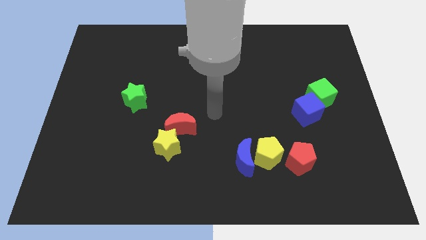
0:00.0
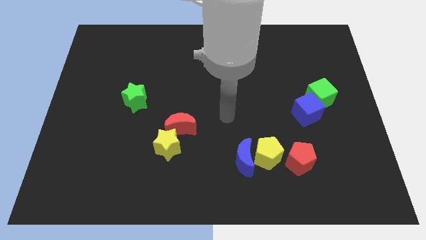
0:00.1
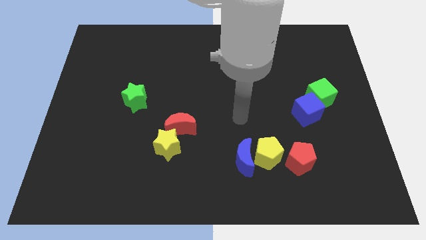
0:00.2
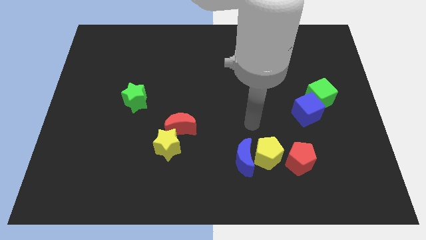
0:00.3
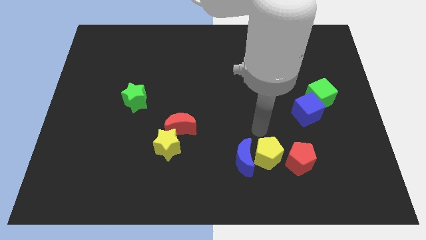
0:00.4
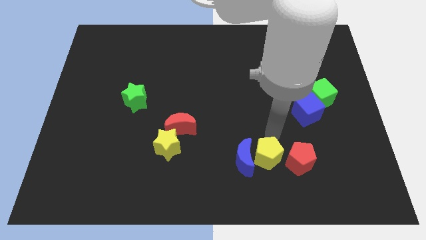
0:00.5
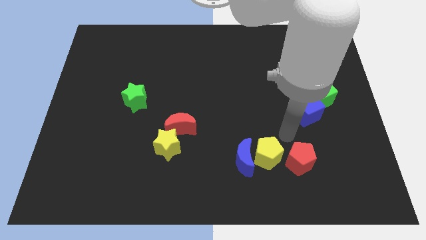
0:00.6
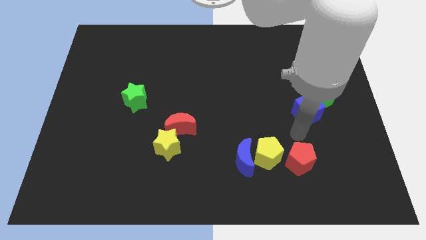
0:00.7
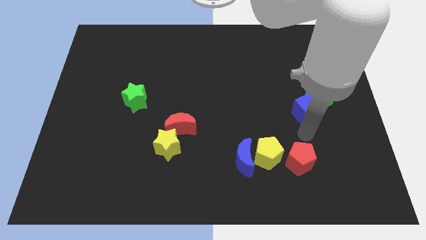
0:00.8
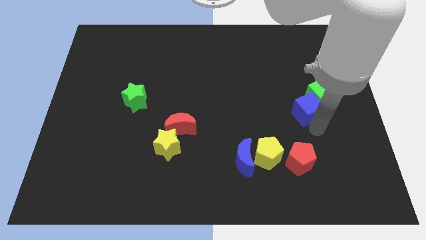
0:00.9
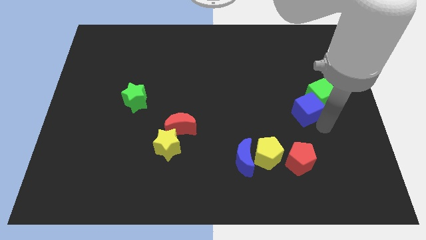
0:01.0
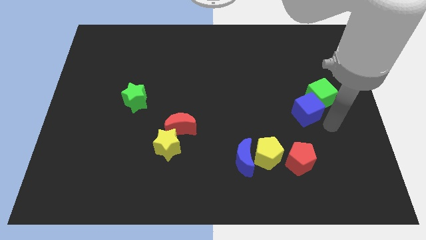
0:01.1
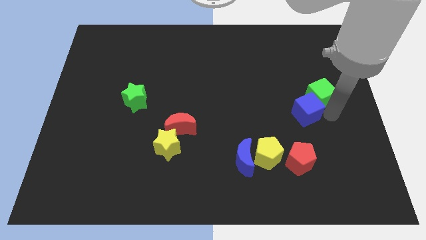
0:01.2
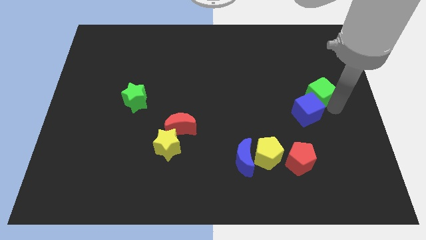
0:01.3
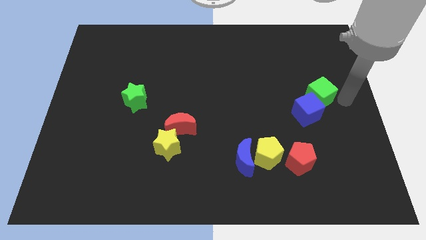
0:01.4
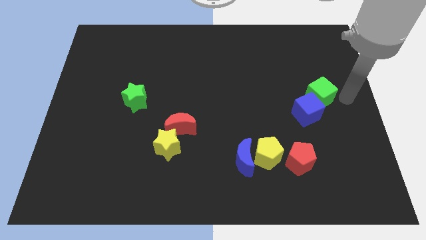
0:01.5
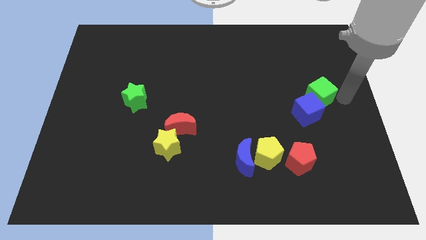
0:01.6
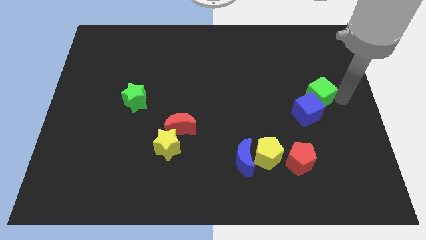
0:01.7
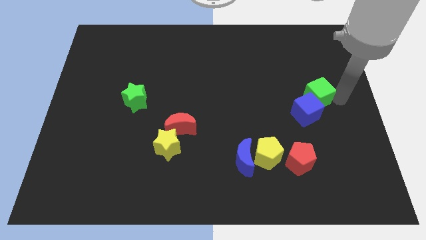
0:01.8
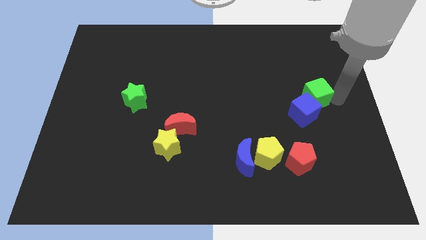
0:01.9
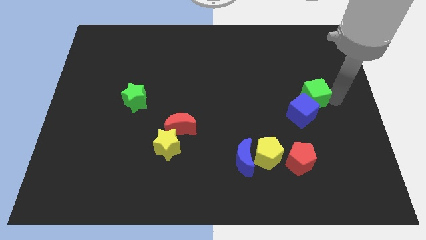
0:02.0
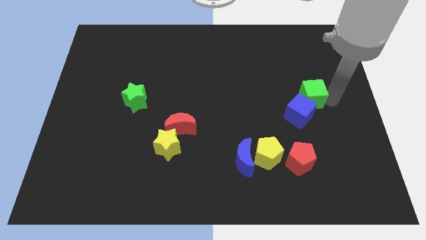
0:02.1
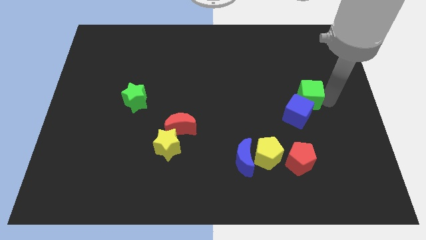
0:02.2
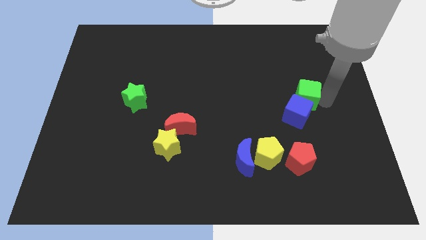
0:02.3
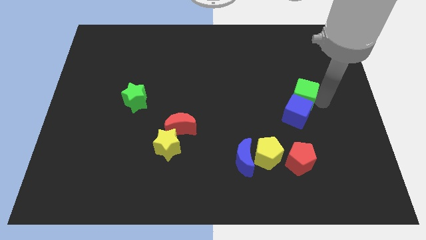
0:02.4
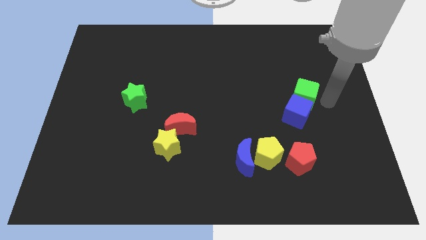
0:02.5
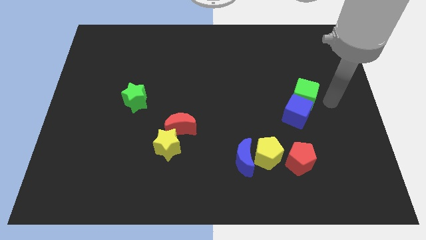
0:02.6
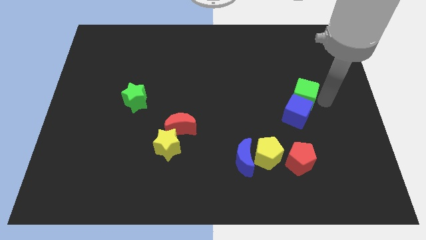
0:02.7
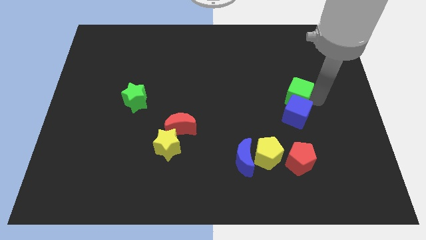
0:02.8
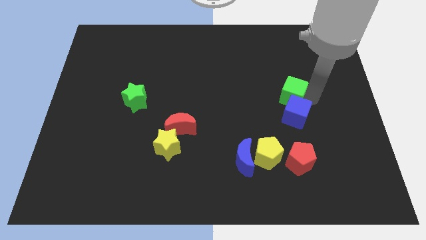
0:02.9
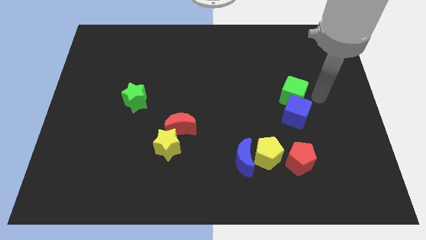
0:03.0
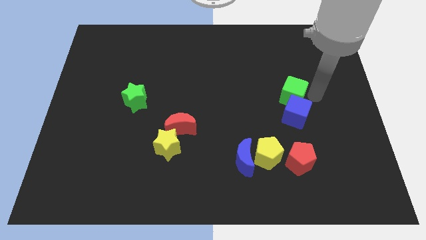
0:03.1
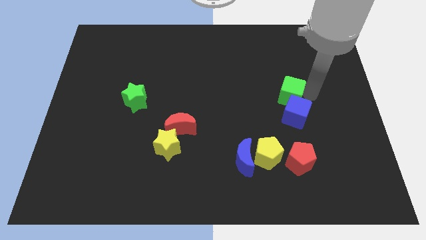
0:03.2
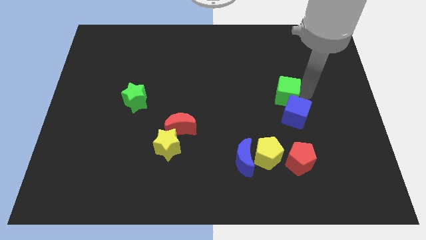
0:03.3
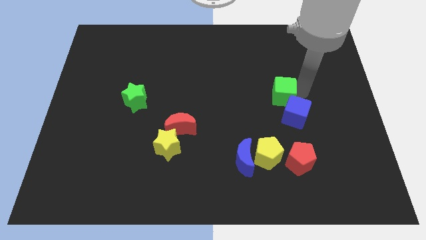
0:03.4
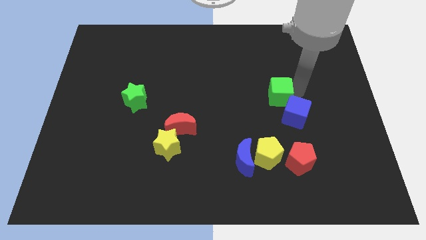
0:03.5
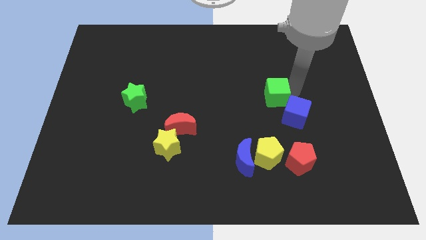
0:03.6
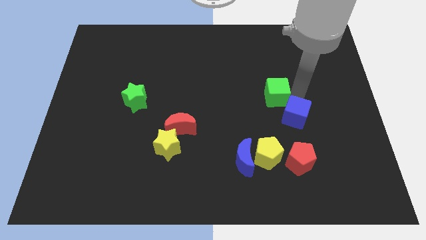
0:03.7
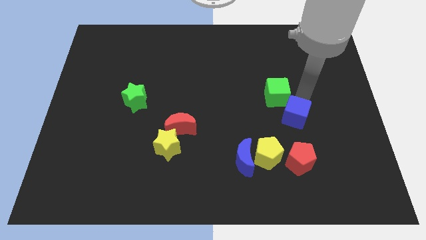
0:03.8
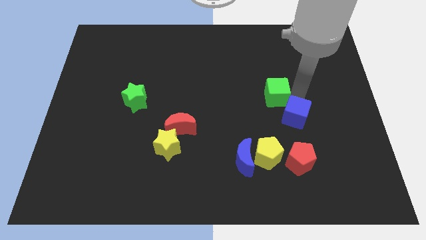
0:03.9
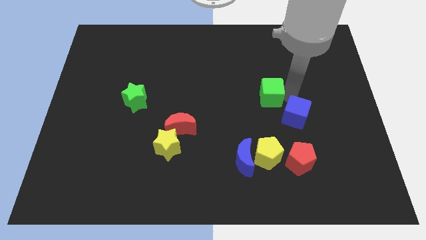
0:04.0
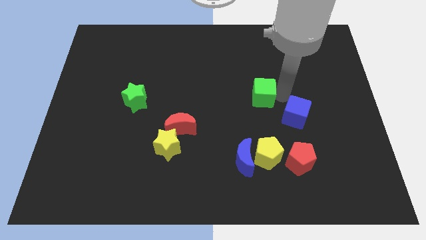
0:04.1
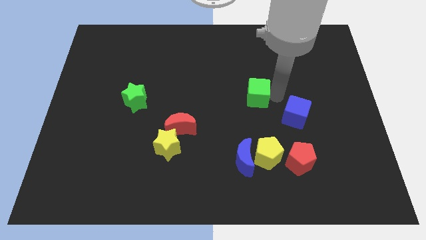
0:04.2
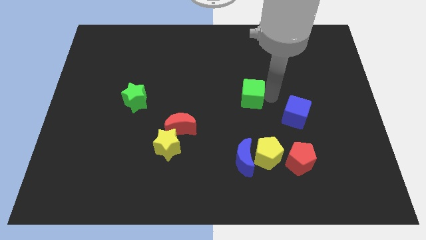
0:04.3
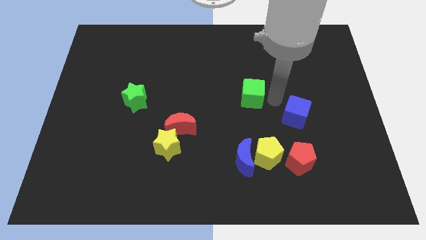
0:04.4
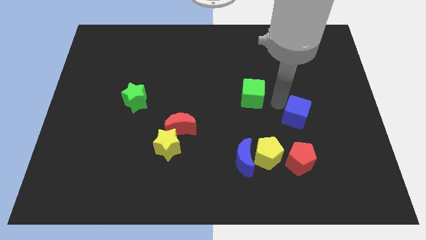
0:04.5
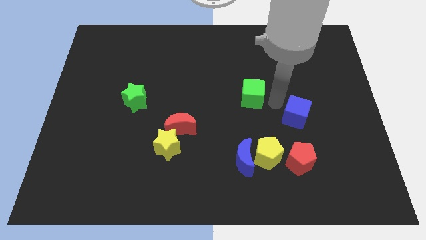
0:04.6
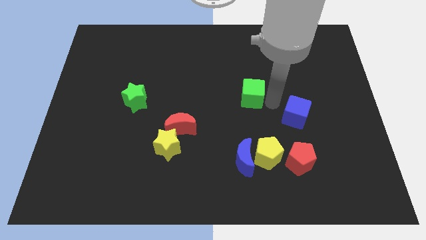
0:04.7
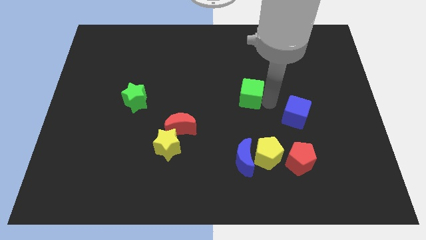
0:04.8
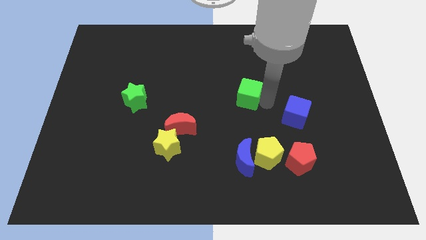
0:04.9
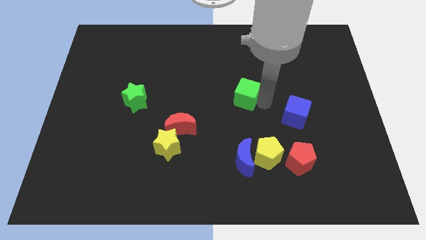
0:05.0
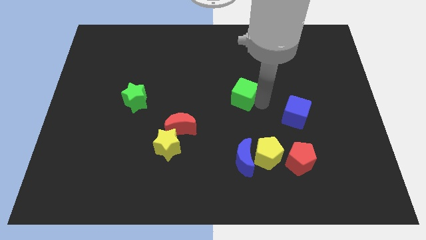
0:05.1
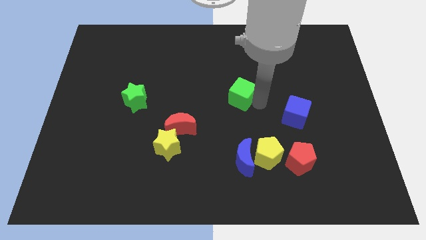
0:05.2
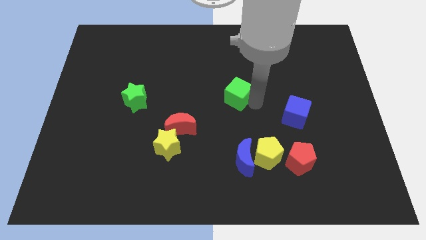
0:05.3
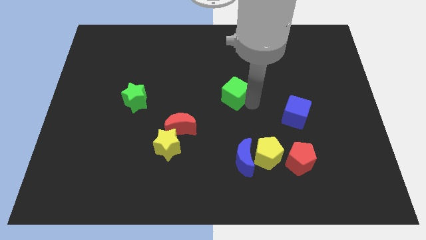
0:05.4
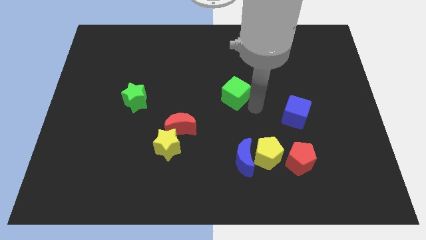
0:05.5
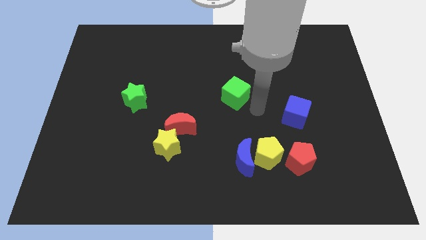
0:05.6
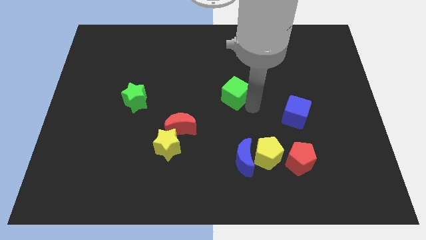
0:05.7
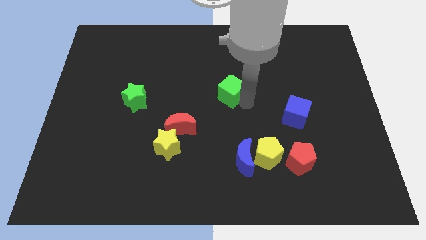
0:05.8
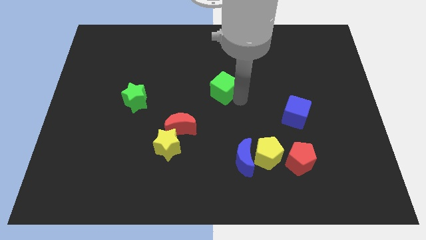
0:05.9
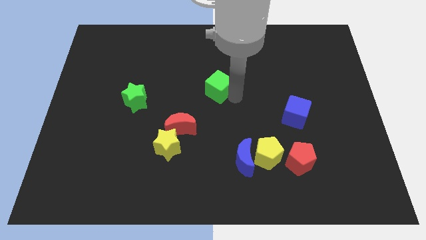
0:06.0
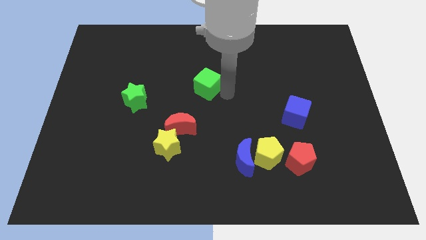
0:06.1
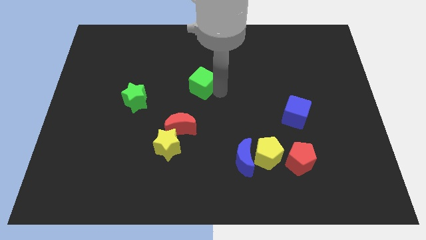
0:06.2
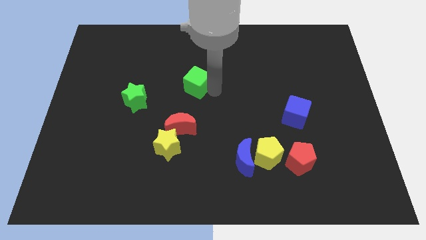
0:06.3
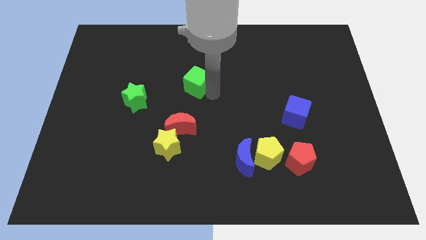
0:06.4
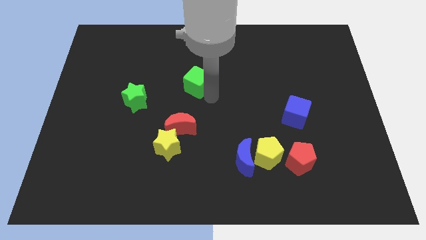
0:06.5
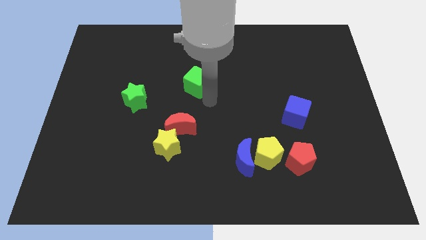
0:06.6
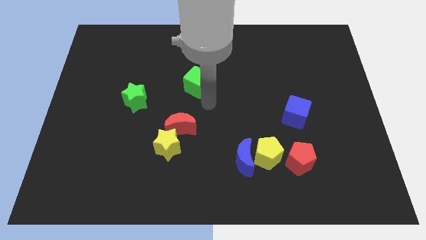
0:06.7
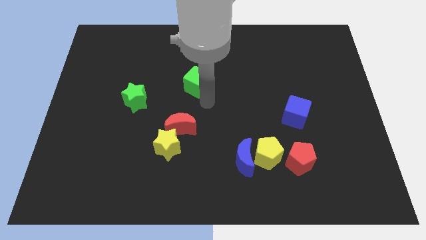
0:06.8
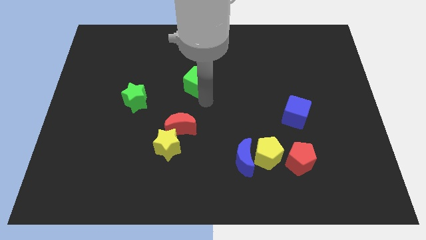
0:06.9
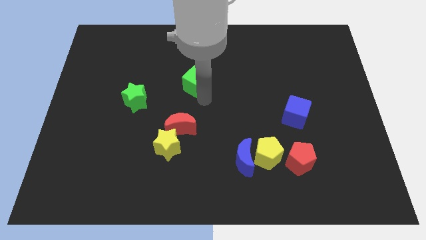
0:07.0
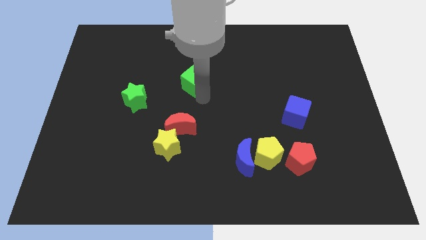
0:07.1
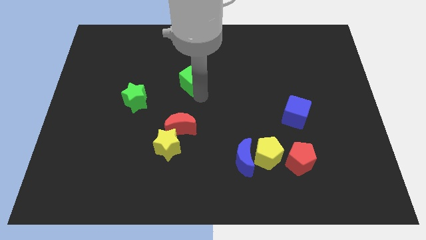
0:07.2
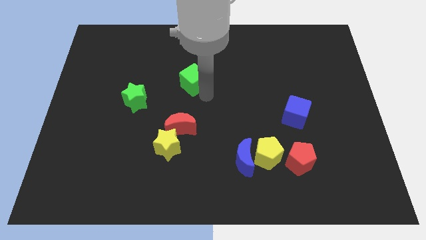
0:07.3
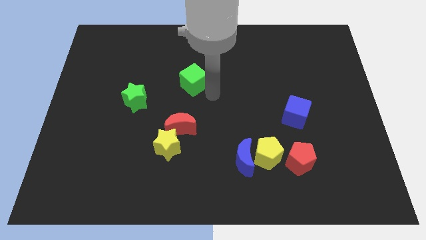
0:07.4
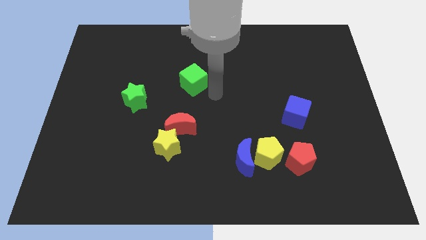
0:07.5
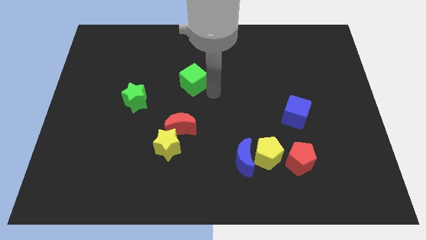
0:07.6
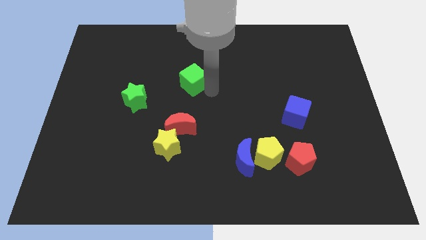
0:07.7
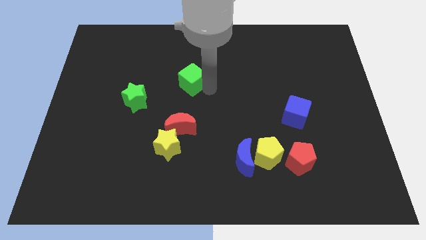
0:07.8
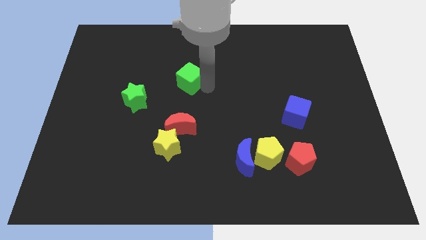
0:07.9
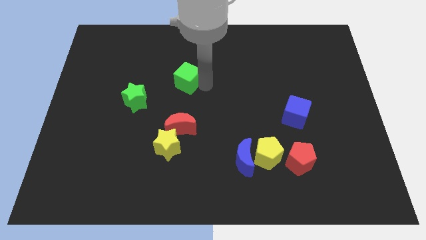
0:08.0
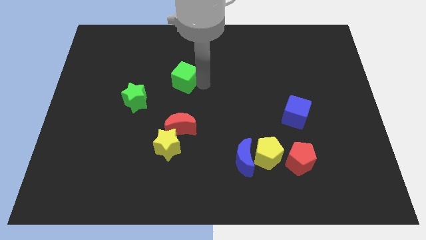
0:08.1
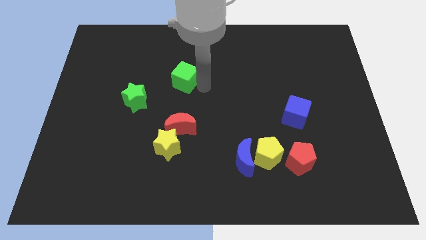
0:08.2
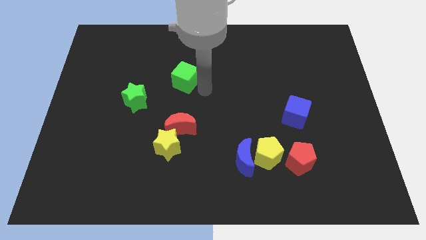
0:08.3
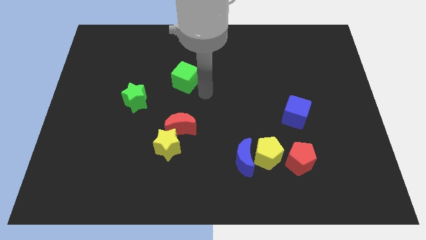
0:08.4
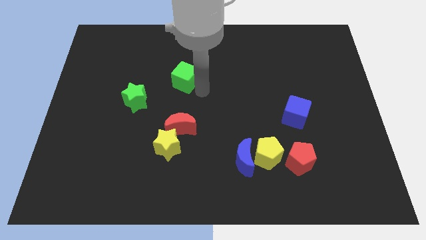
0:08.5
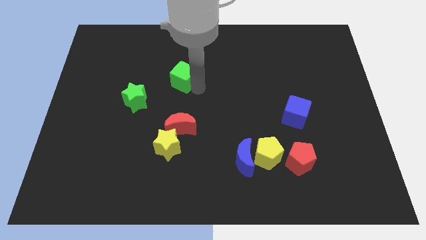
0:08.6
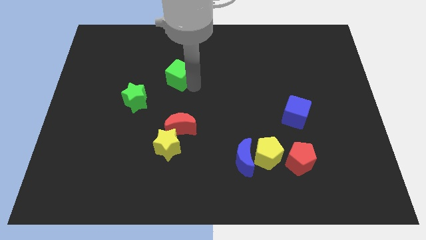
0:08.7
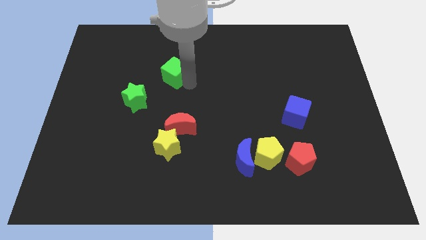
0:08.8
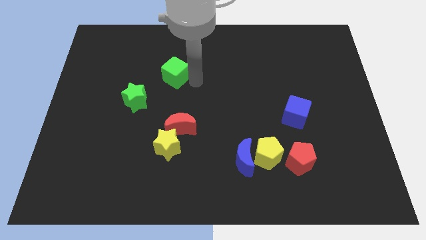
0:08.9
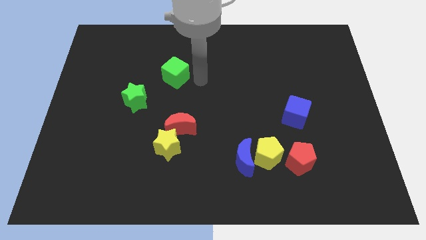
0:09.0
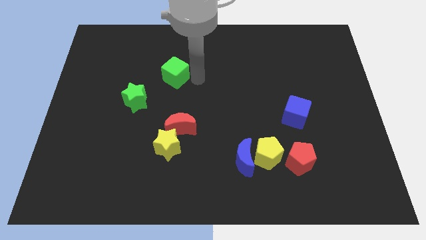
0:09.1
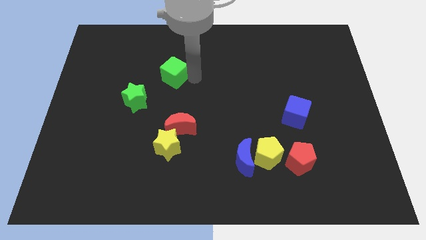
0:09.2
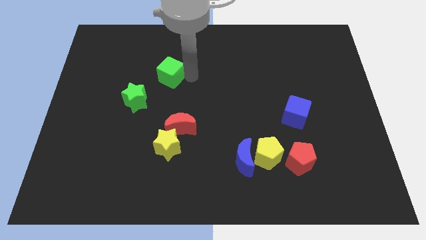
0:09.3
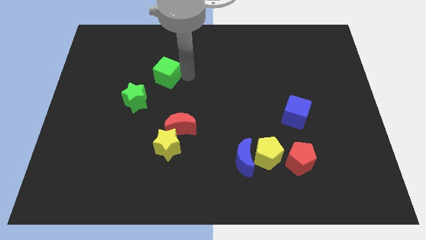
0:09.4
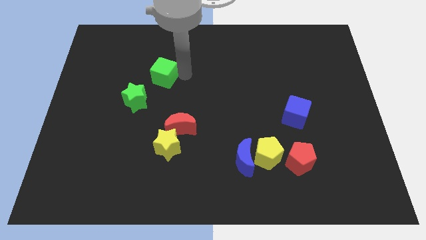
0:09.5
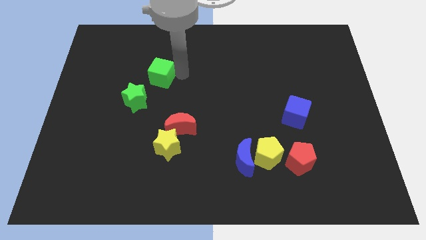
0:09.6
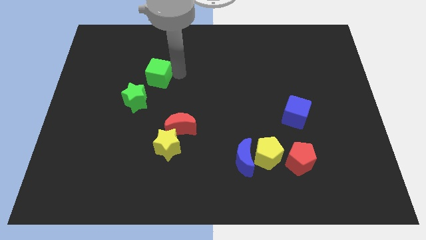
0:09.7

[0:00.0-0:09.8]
move the green cube to the top side of the green star
